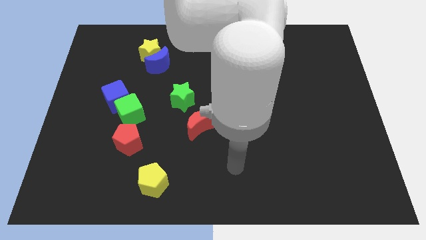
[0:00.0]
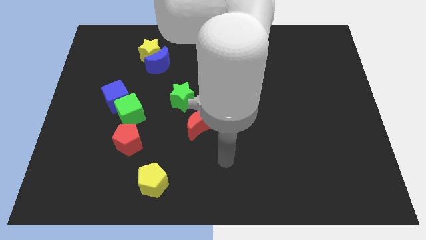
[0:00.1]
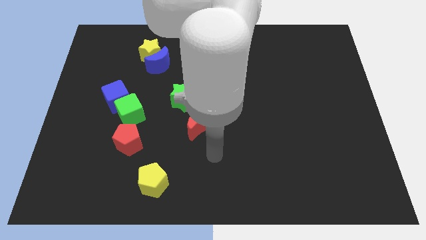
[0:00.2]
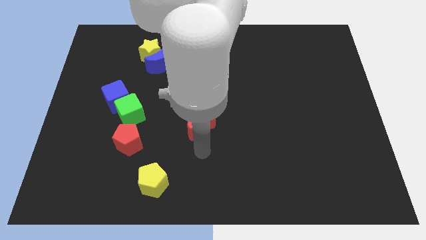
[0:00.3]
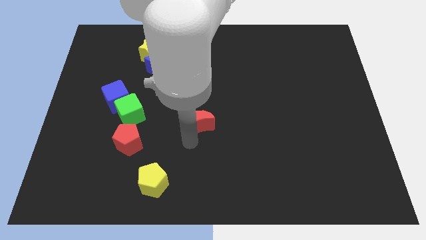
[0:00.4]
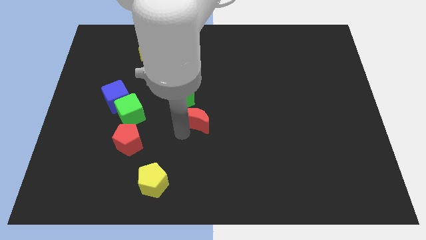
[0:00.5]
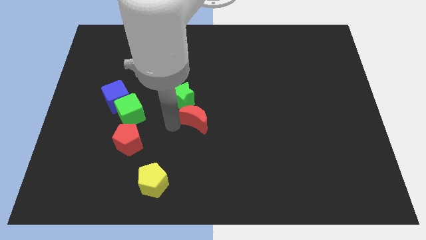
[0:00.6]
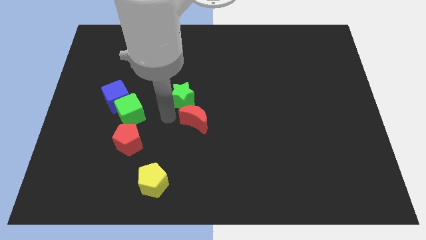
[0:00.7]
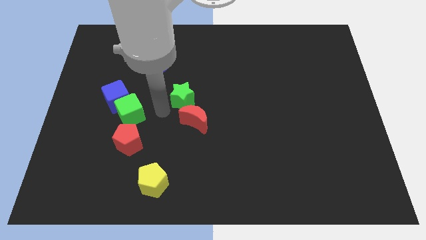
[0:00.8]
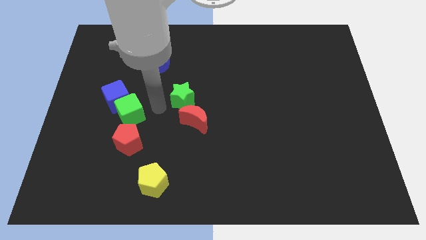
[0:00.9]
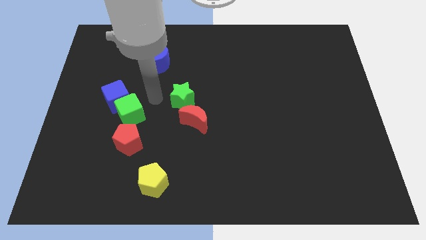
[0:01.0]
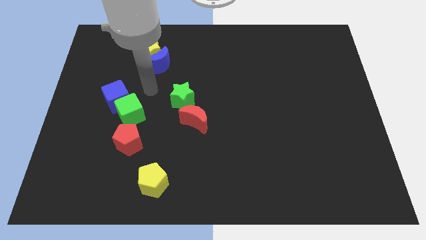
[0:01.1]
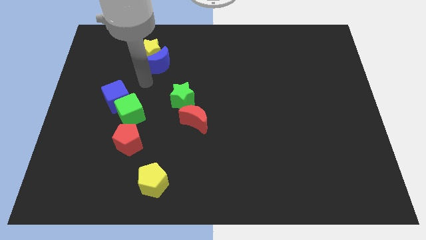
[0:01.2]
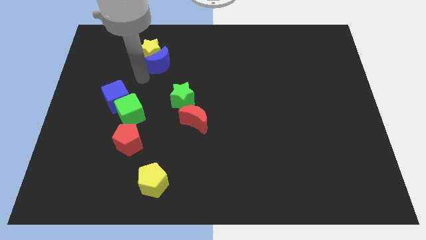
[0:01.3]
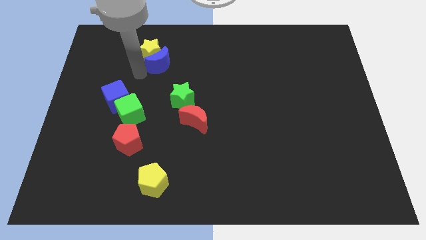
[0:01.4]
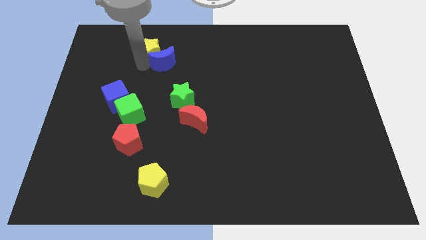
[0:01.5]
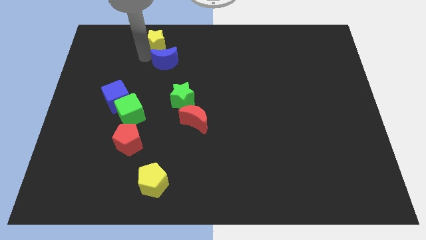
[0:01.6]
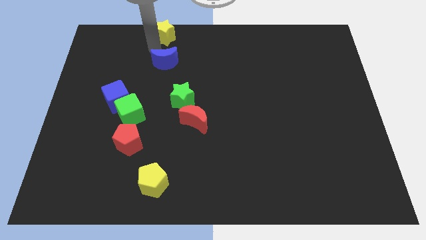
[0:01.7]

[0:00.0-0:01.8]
separate the blue moon from the yellow star

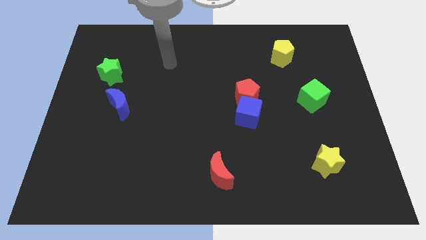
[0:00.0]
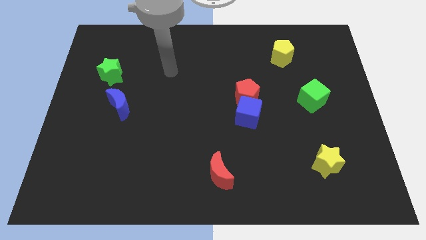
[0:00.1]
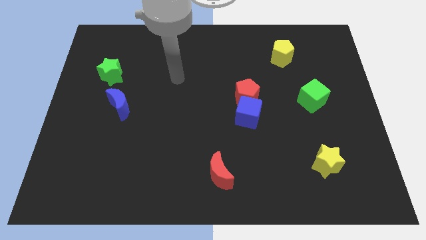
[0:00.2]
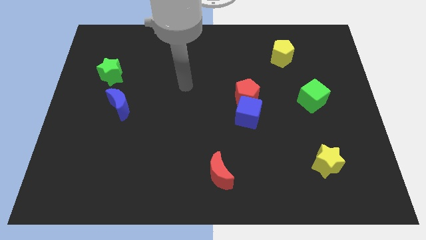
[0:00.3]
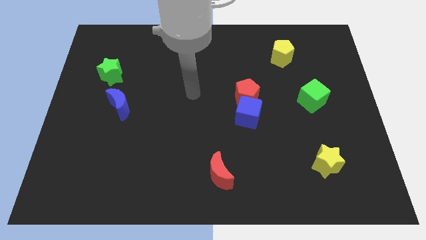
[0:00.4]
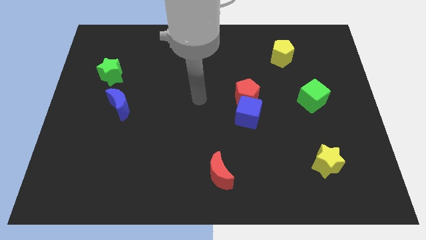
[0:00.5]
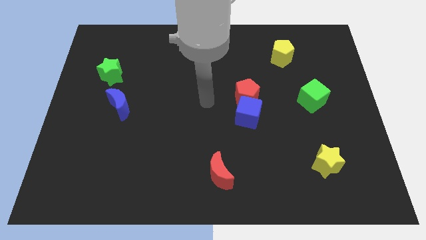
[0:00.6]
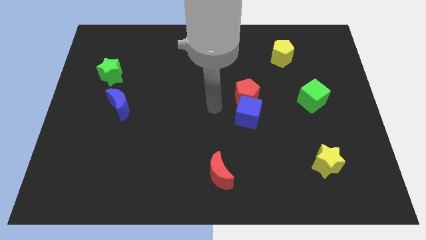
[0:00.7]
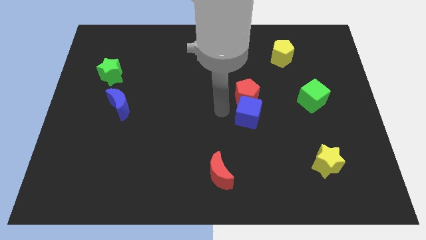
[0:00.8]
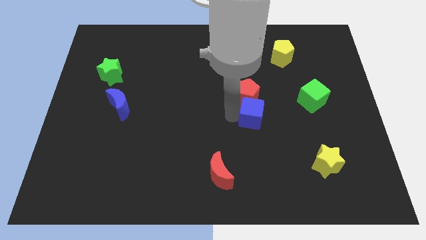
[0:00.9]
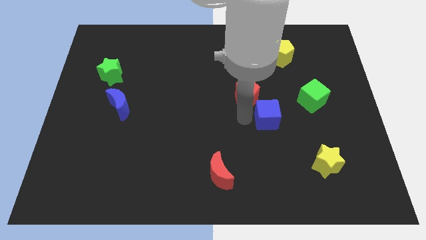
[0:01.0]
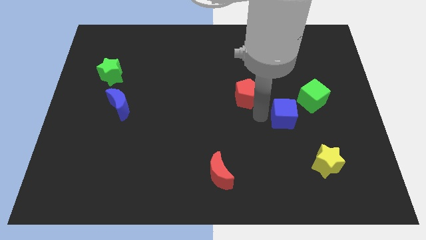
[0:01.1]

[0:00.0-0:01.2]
move the red pentagon away from the blue cube

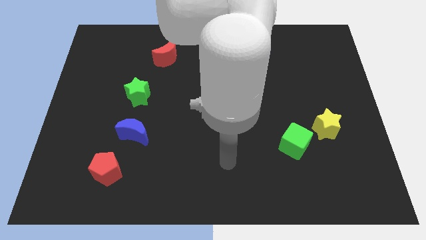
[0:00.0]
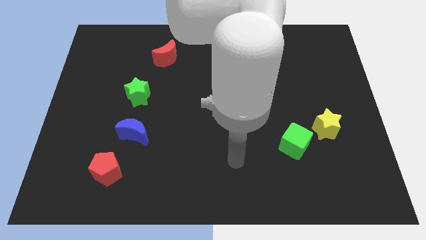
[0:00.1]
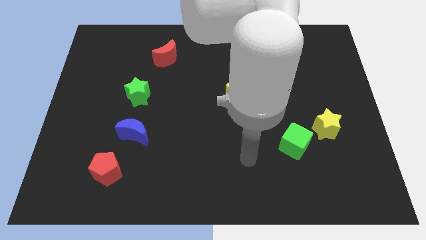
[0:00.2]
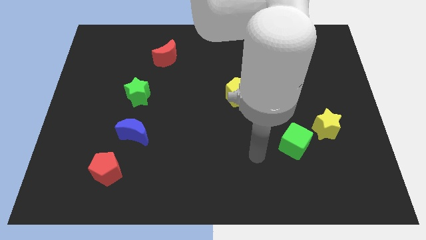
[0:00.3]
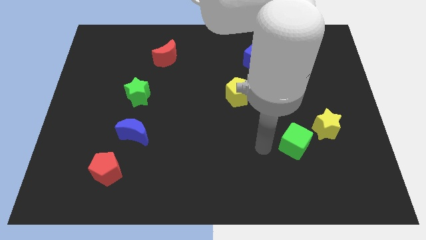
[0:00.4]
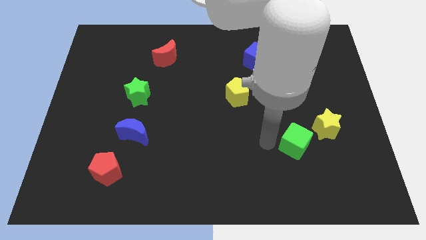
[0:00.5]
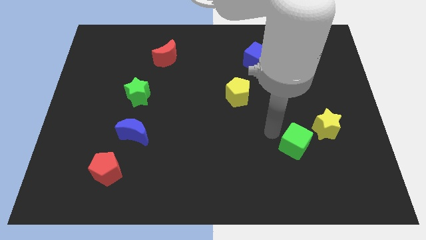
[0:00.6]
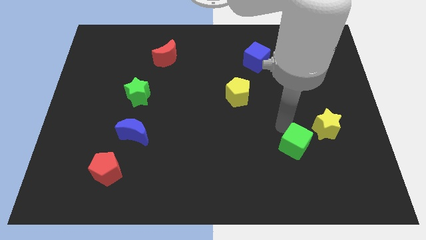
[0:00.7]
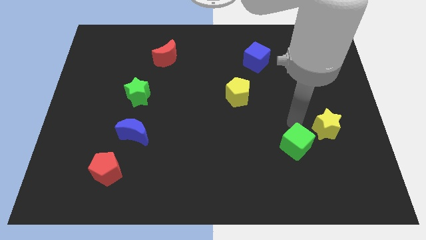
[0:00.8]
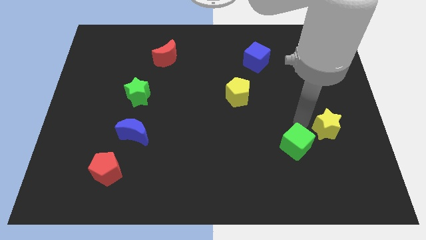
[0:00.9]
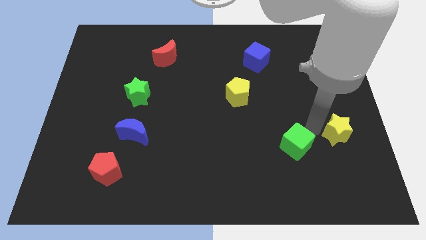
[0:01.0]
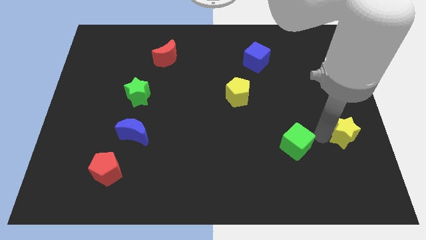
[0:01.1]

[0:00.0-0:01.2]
separate the green cube from the yellow star

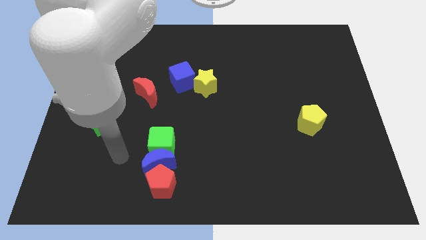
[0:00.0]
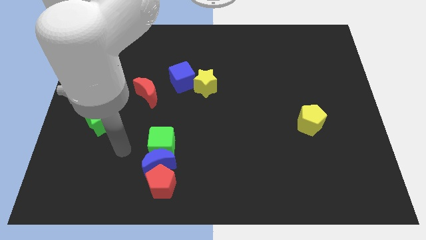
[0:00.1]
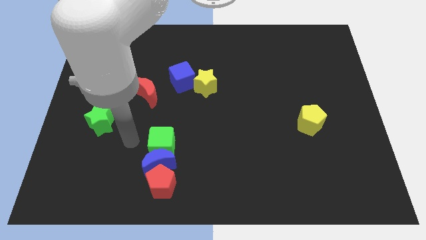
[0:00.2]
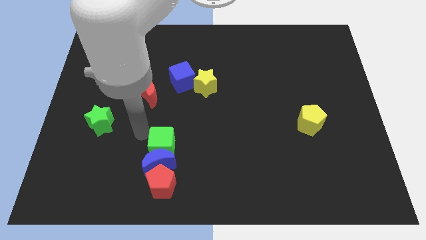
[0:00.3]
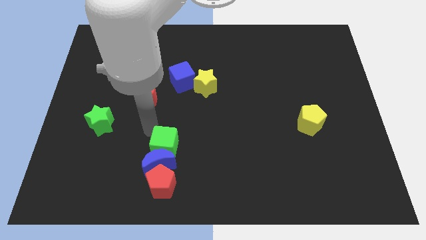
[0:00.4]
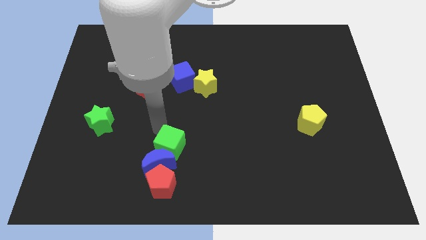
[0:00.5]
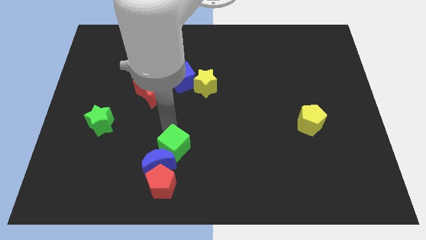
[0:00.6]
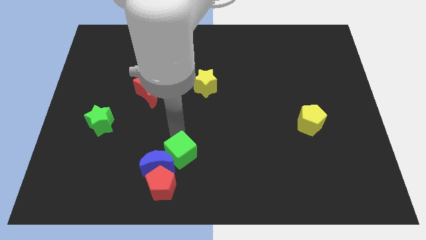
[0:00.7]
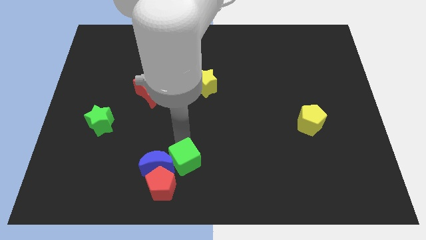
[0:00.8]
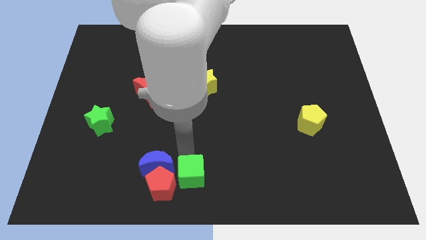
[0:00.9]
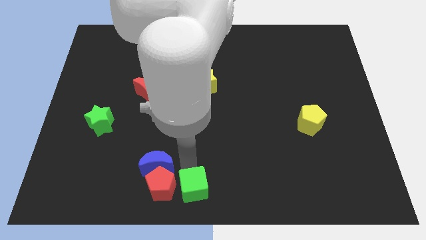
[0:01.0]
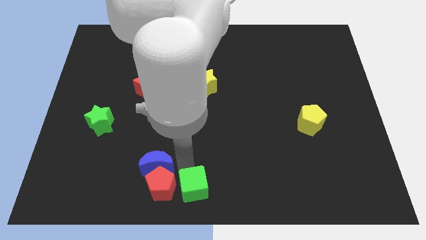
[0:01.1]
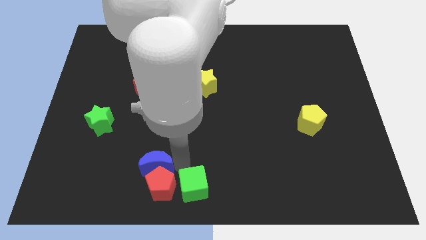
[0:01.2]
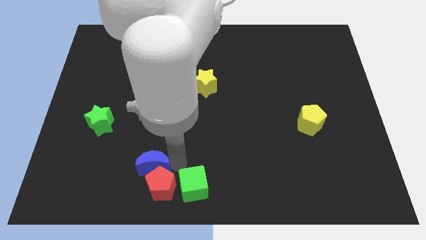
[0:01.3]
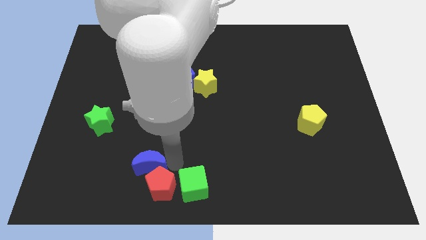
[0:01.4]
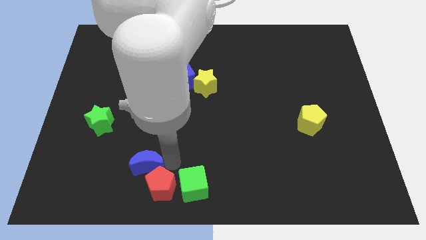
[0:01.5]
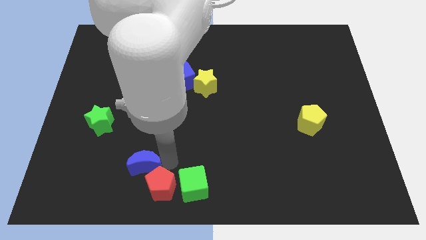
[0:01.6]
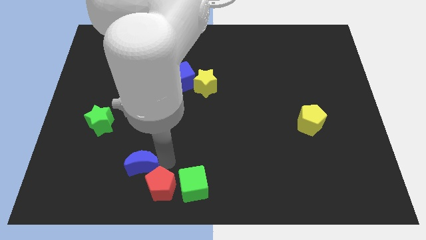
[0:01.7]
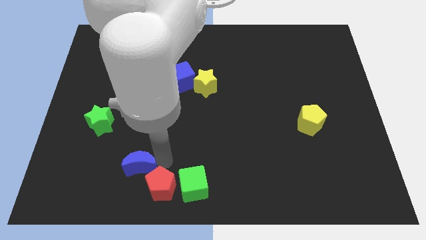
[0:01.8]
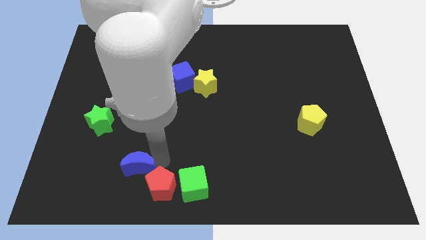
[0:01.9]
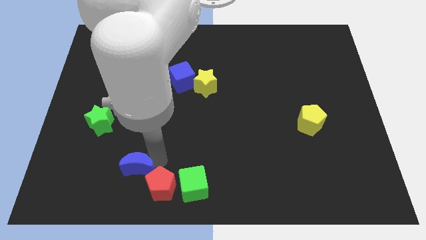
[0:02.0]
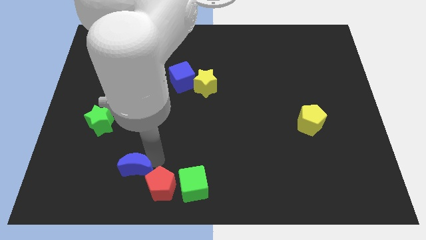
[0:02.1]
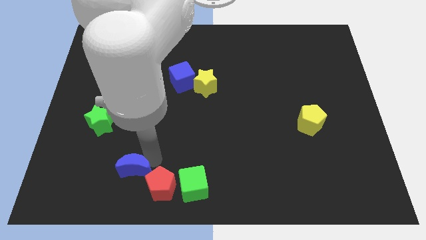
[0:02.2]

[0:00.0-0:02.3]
pull the blue moon apart from the green cube and red pentagon

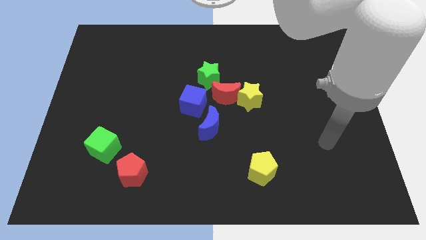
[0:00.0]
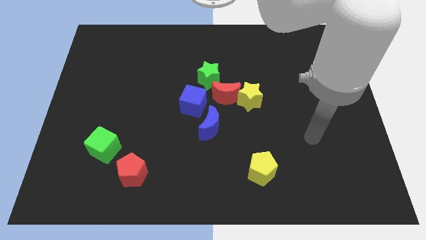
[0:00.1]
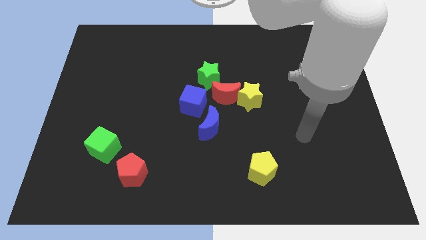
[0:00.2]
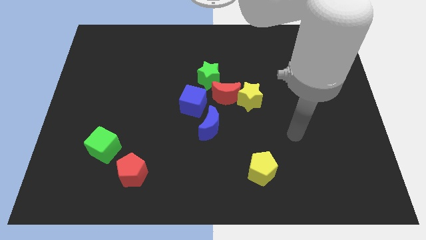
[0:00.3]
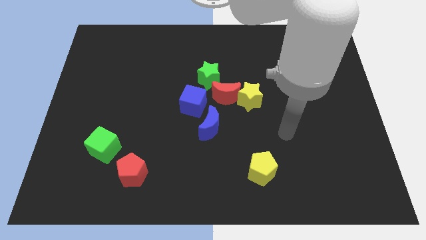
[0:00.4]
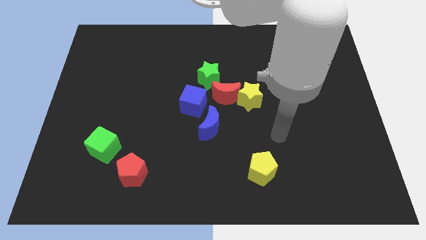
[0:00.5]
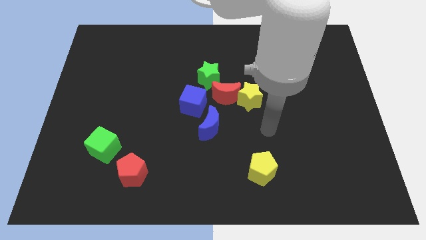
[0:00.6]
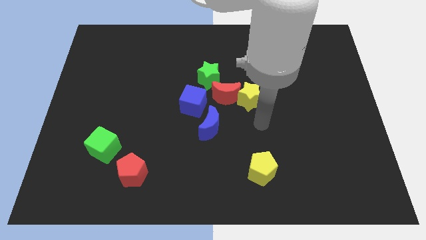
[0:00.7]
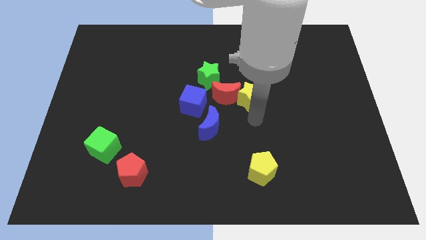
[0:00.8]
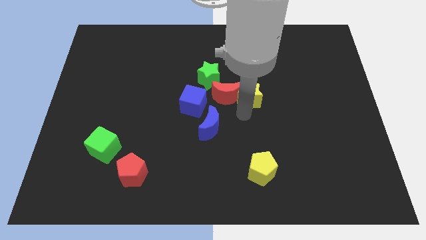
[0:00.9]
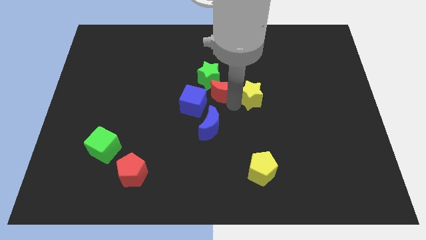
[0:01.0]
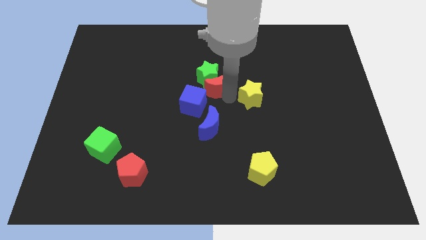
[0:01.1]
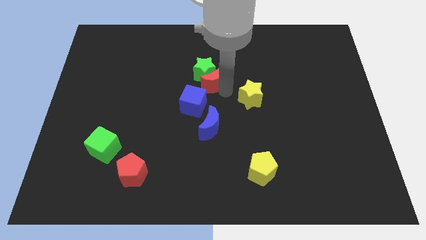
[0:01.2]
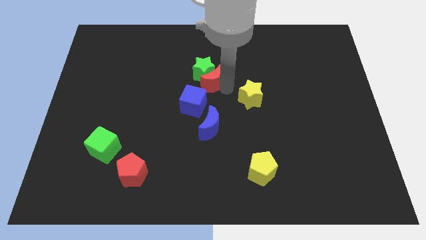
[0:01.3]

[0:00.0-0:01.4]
pull the yellow star apart from the red moon

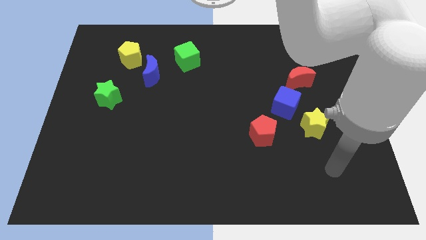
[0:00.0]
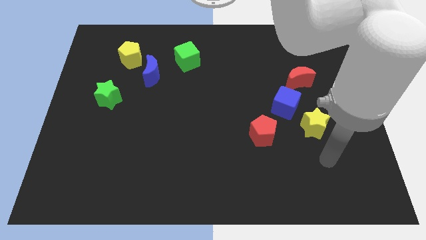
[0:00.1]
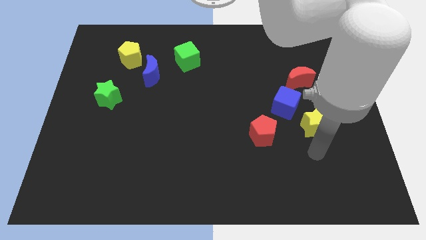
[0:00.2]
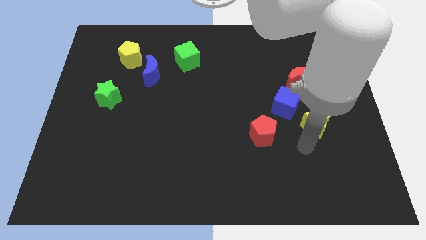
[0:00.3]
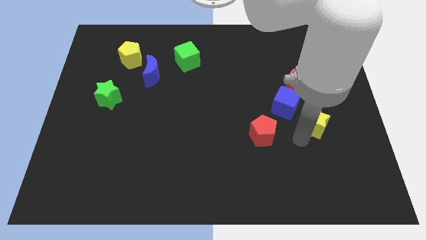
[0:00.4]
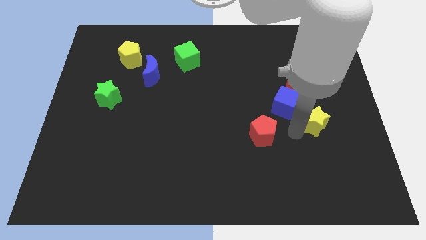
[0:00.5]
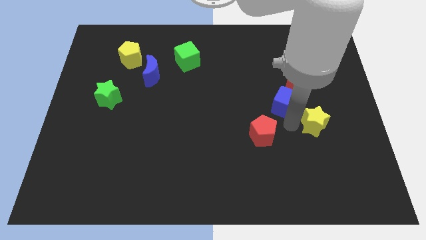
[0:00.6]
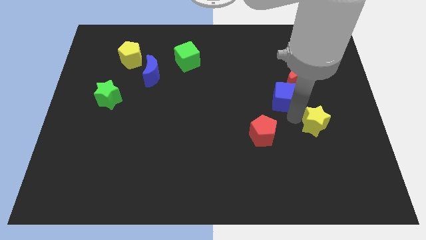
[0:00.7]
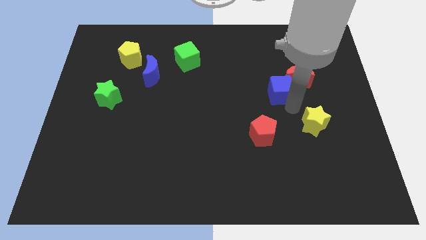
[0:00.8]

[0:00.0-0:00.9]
pull the yellow star apart from the blue cube

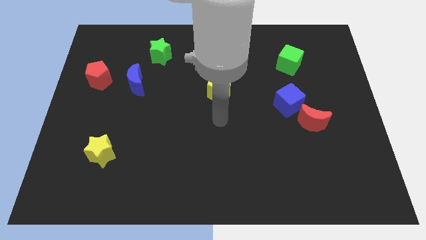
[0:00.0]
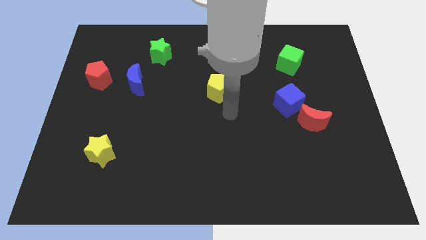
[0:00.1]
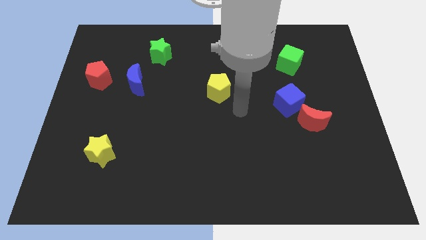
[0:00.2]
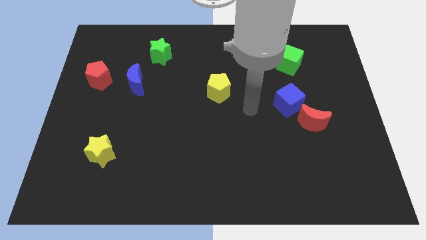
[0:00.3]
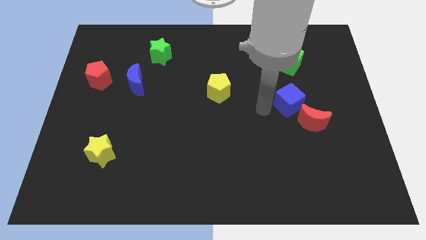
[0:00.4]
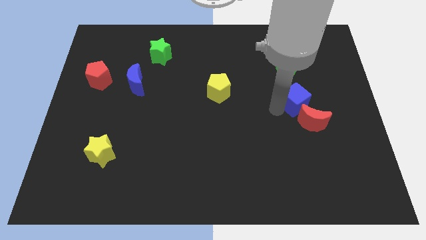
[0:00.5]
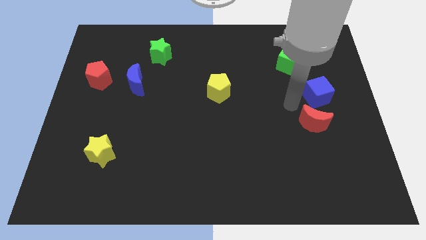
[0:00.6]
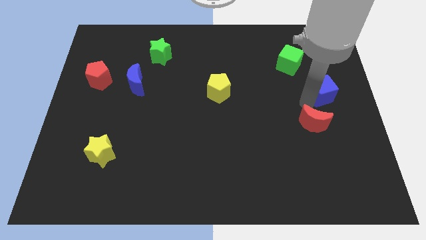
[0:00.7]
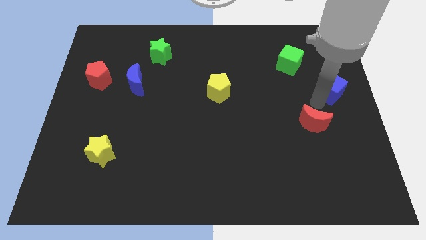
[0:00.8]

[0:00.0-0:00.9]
separate the red moon from the blue cube
